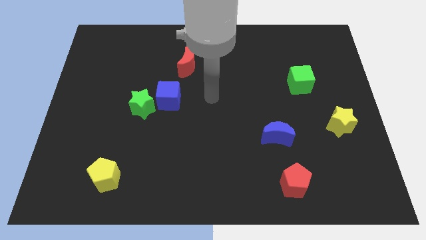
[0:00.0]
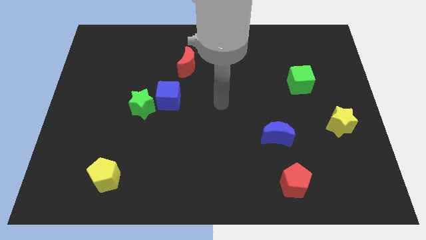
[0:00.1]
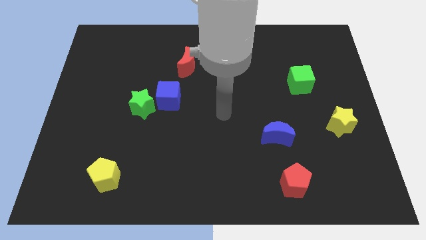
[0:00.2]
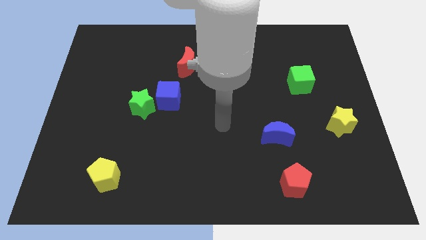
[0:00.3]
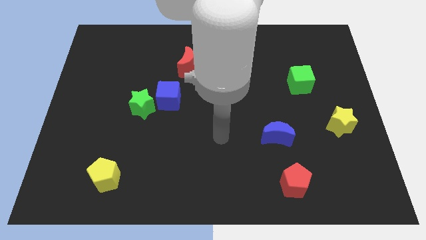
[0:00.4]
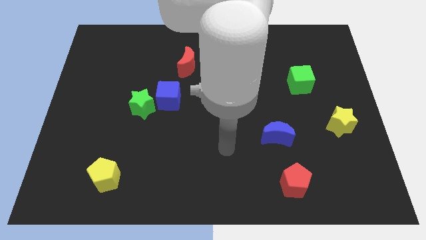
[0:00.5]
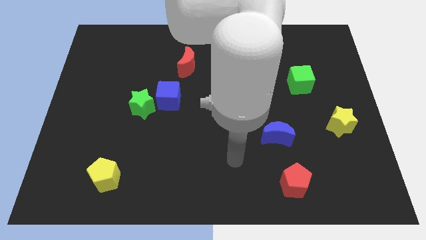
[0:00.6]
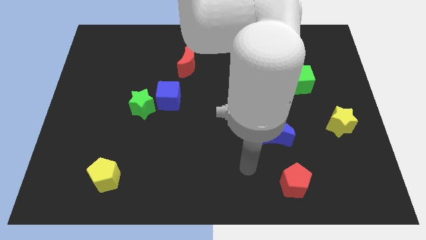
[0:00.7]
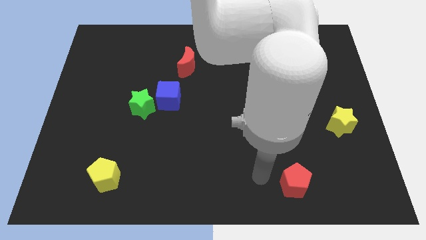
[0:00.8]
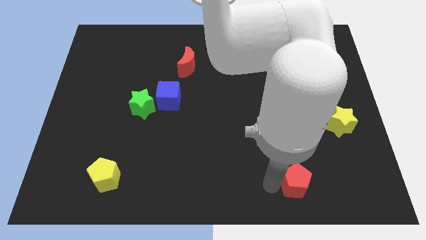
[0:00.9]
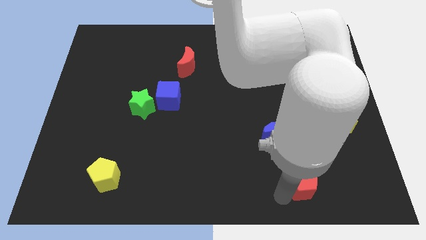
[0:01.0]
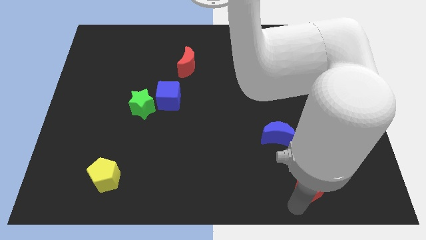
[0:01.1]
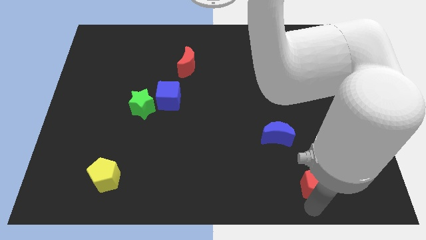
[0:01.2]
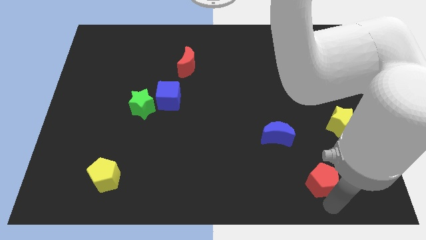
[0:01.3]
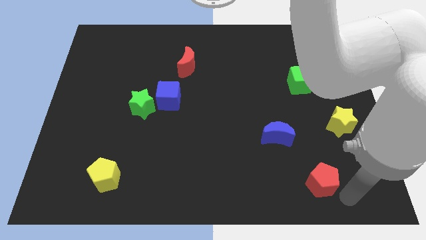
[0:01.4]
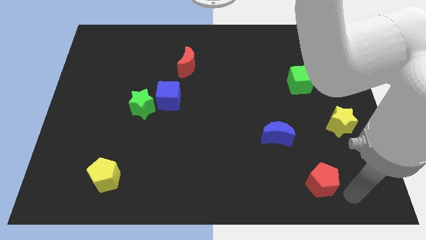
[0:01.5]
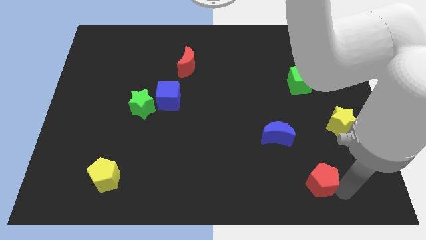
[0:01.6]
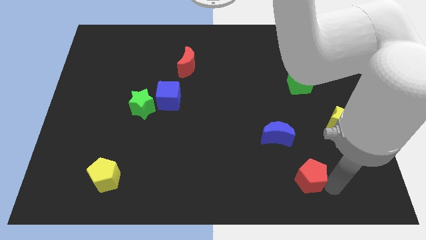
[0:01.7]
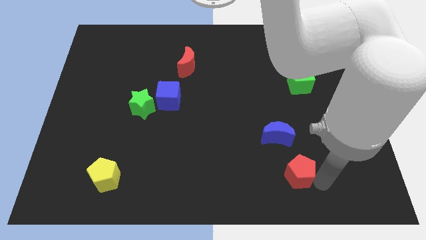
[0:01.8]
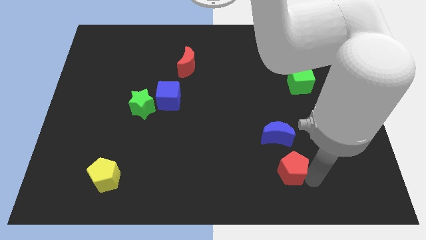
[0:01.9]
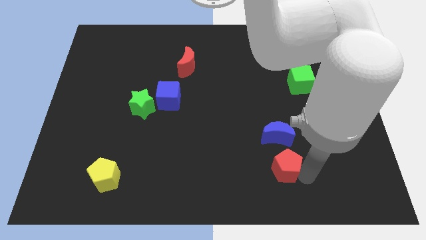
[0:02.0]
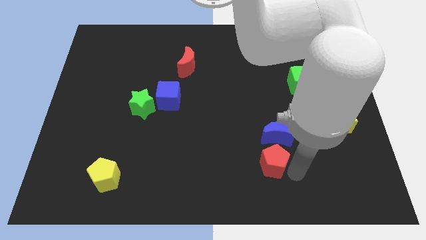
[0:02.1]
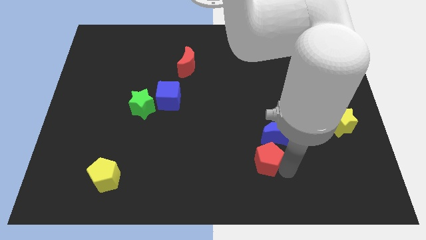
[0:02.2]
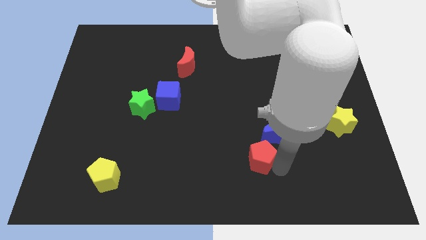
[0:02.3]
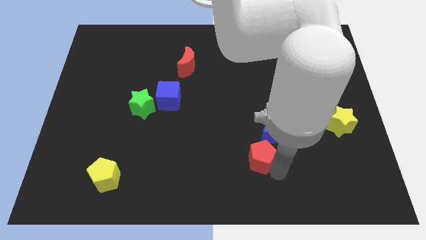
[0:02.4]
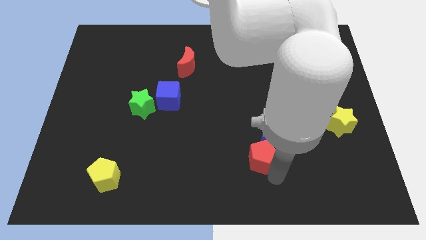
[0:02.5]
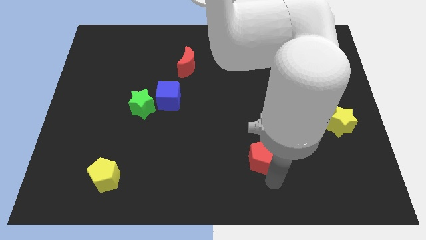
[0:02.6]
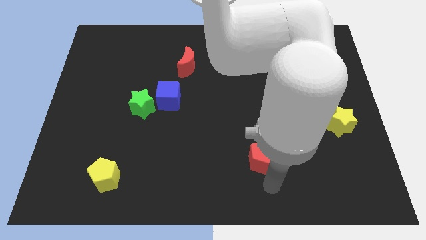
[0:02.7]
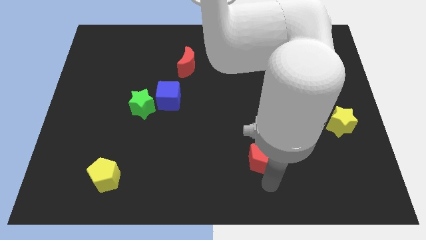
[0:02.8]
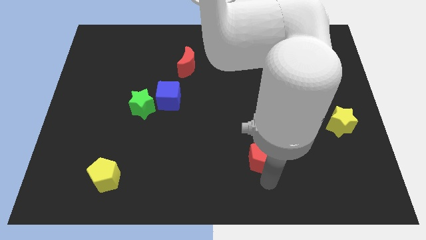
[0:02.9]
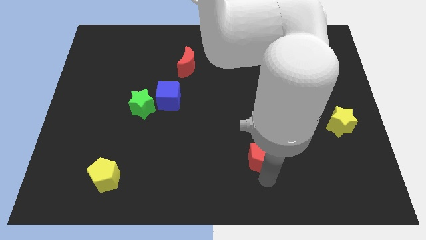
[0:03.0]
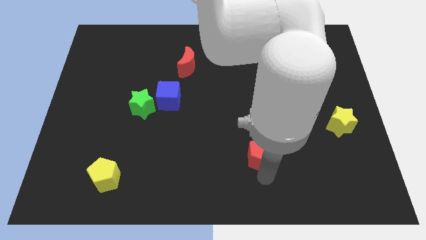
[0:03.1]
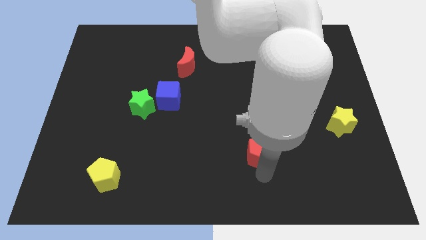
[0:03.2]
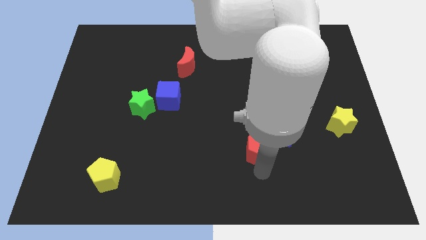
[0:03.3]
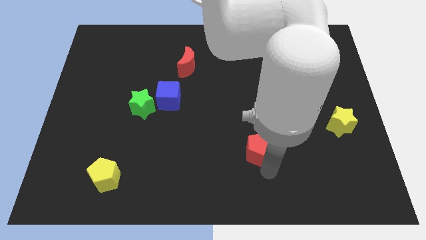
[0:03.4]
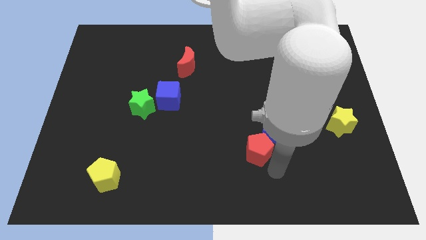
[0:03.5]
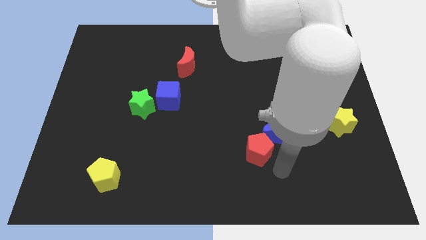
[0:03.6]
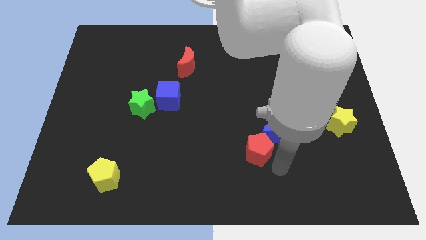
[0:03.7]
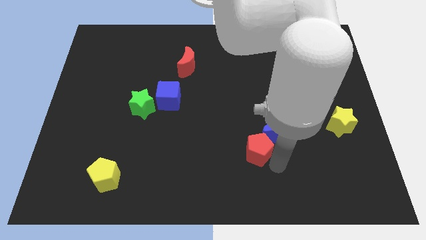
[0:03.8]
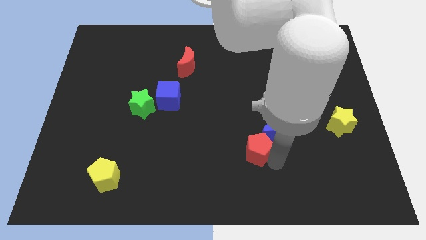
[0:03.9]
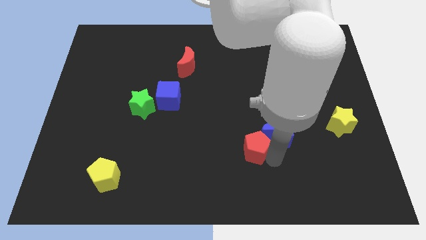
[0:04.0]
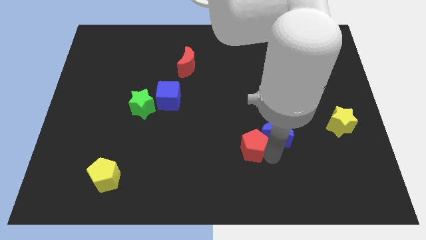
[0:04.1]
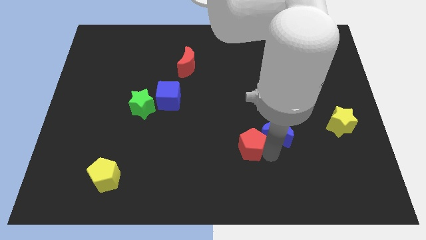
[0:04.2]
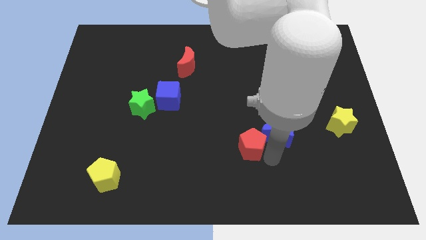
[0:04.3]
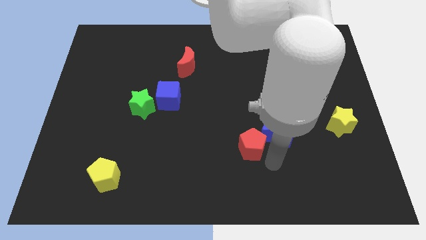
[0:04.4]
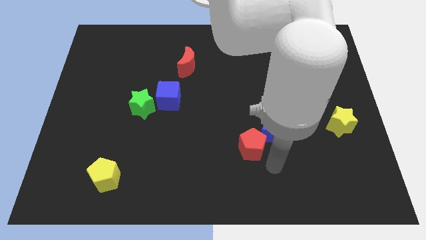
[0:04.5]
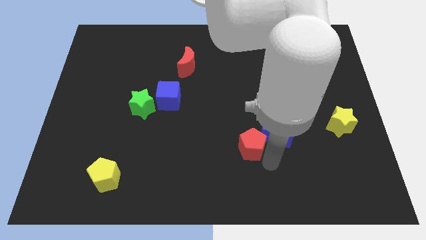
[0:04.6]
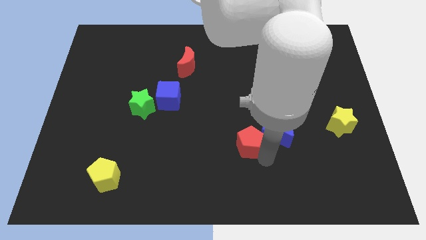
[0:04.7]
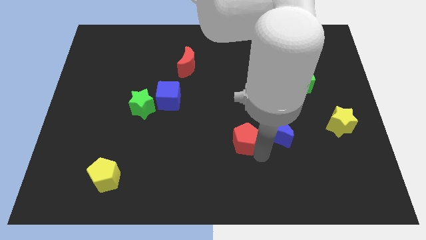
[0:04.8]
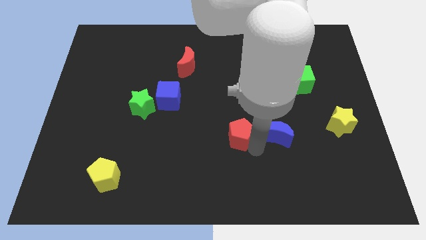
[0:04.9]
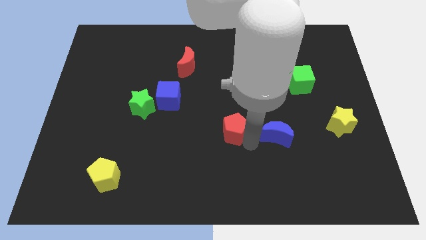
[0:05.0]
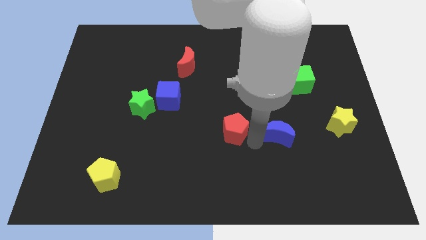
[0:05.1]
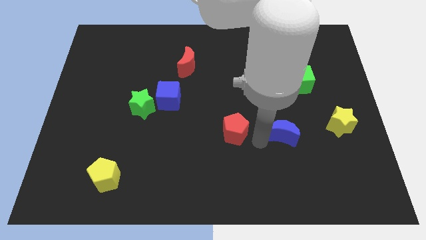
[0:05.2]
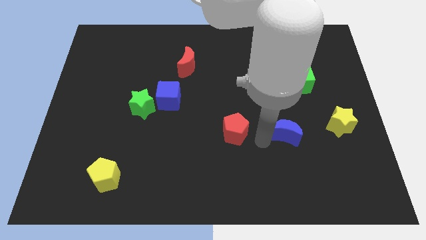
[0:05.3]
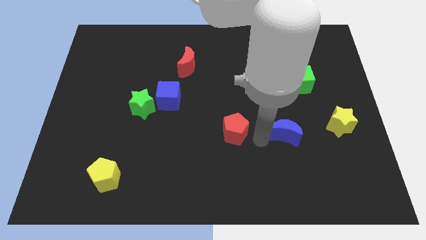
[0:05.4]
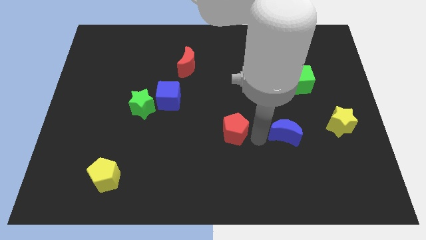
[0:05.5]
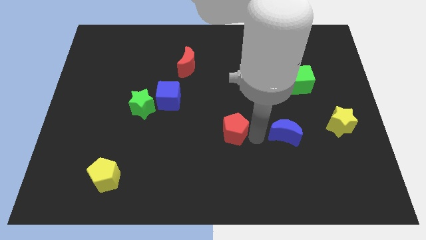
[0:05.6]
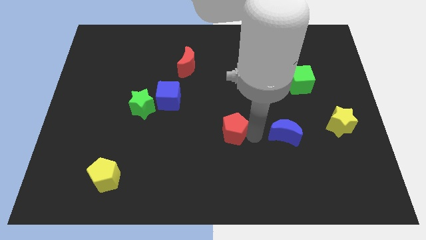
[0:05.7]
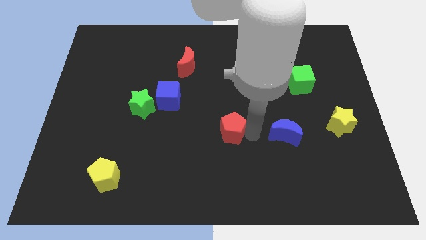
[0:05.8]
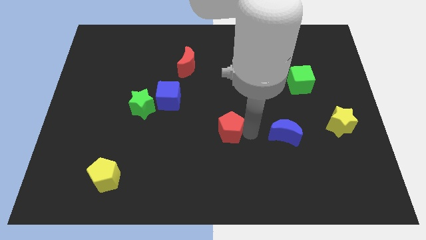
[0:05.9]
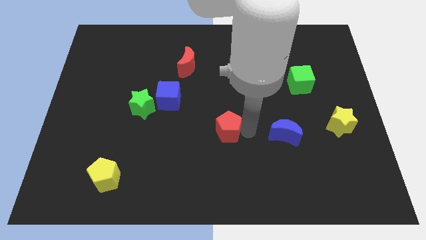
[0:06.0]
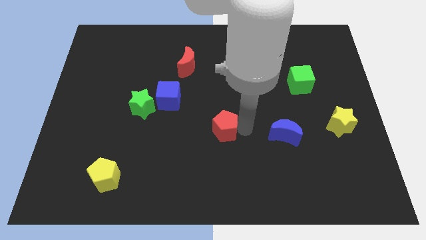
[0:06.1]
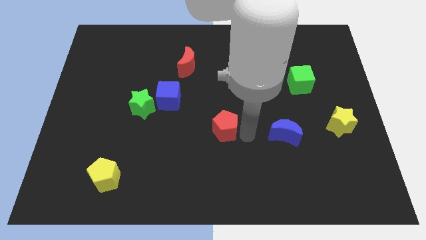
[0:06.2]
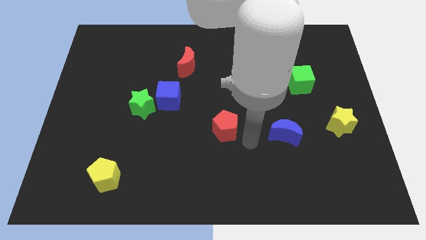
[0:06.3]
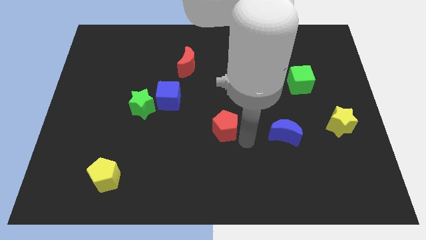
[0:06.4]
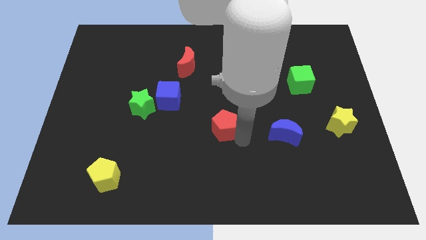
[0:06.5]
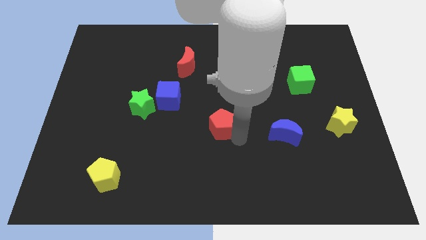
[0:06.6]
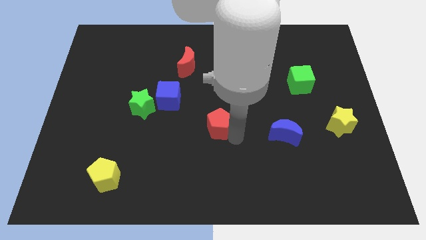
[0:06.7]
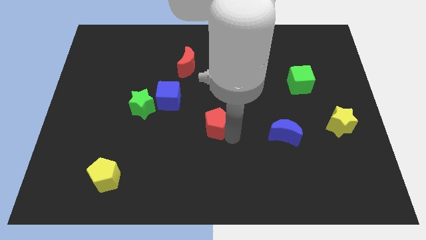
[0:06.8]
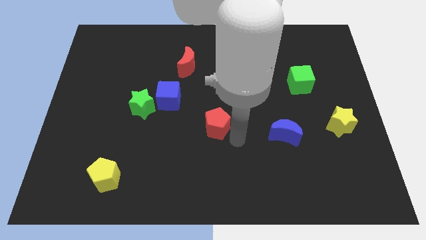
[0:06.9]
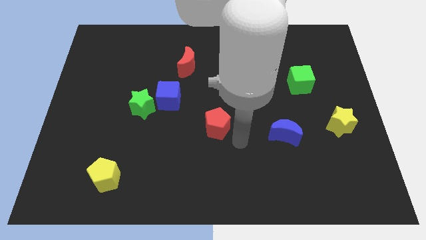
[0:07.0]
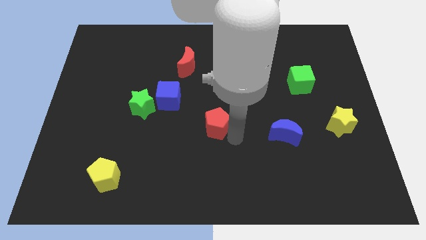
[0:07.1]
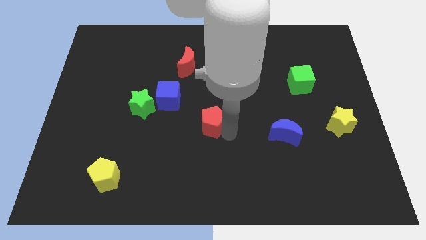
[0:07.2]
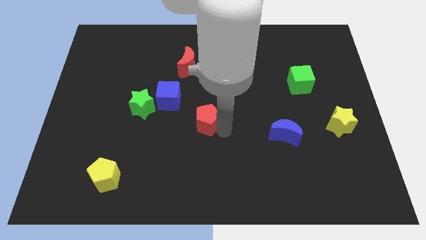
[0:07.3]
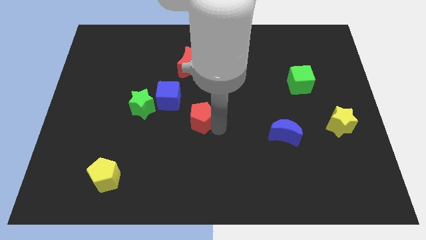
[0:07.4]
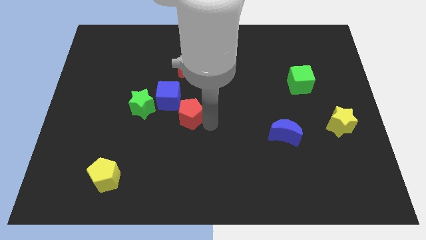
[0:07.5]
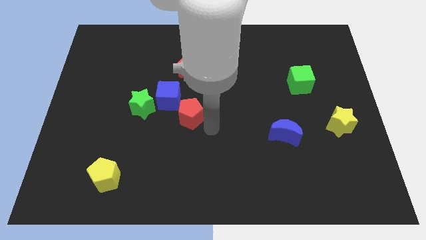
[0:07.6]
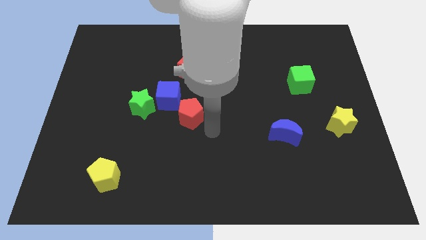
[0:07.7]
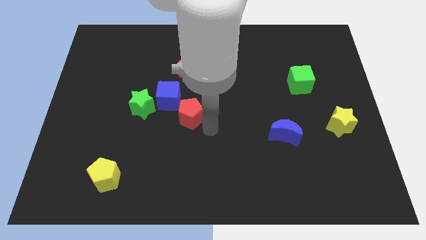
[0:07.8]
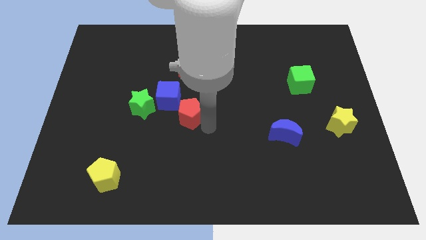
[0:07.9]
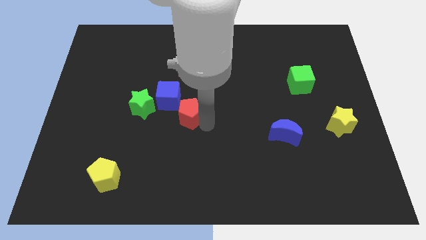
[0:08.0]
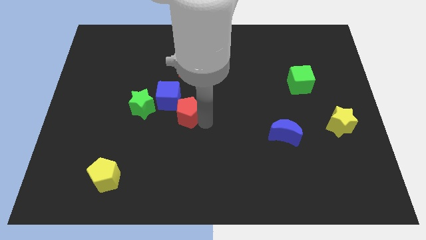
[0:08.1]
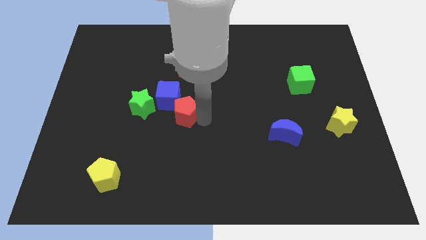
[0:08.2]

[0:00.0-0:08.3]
put the red pentagon to the blue cube
